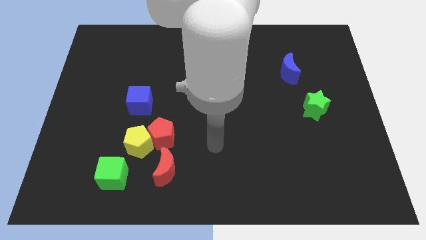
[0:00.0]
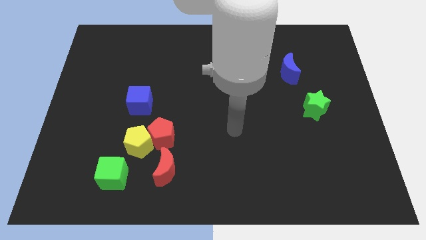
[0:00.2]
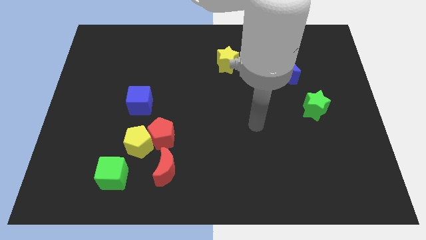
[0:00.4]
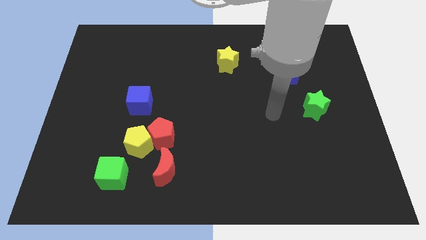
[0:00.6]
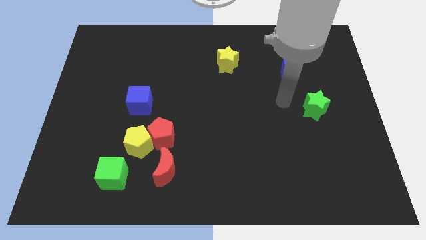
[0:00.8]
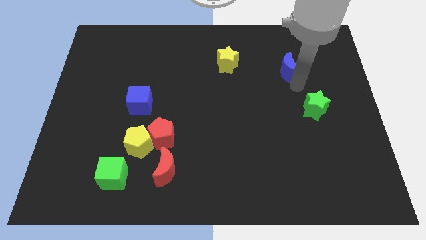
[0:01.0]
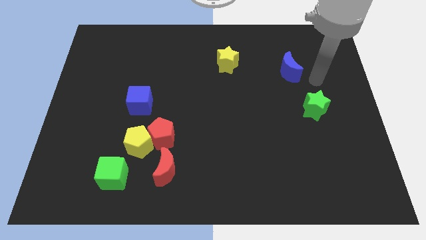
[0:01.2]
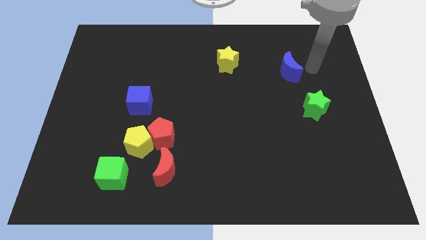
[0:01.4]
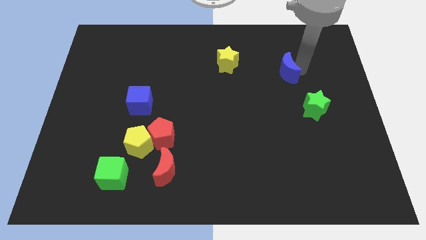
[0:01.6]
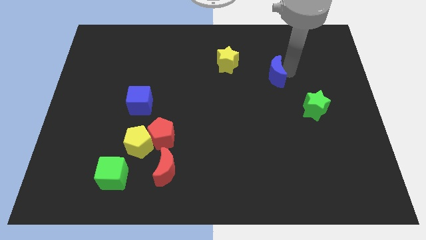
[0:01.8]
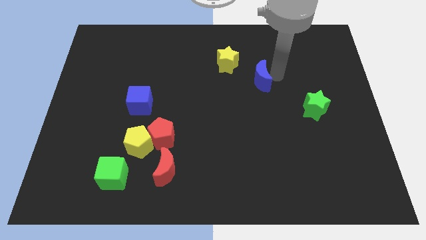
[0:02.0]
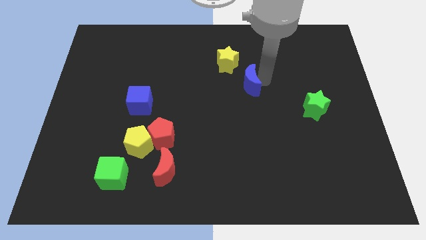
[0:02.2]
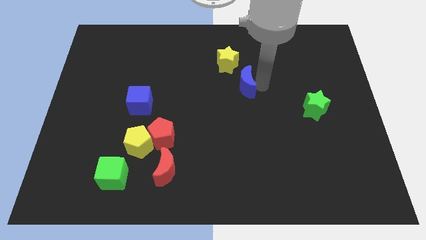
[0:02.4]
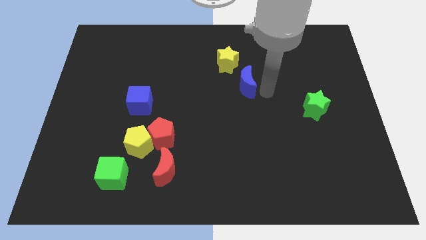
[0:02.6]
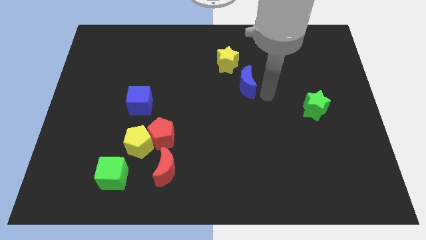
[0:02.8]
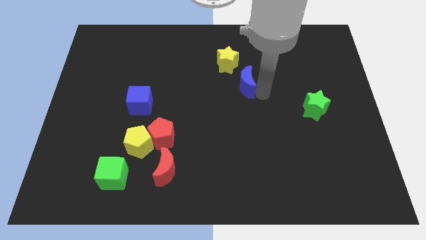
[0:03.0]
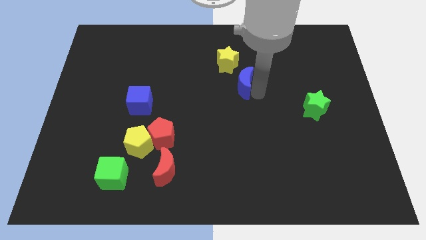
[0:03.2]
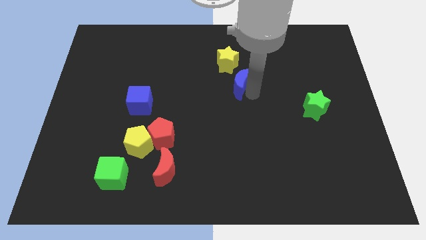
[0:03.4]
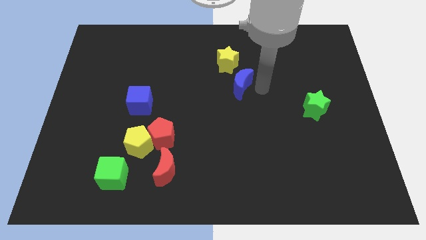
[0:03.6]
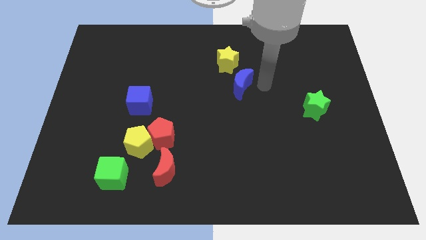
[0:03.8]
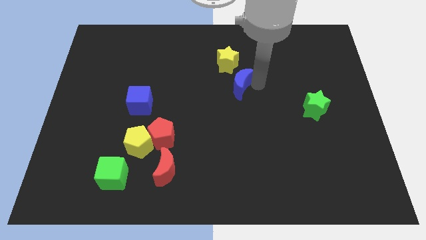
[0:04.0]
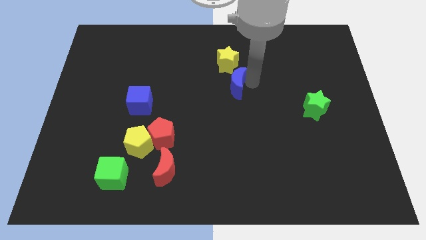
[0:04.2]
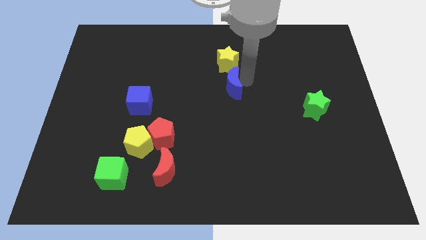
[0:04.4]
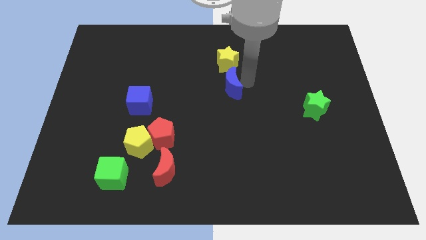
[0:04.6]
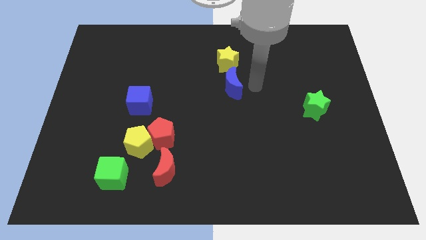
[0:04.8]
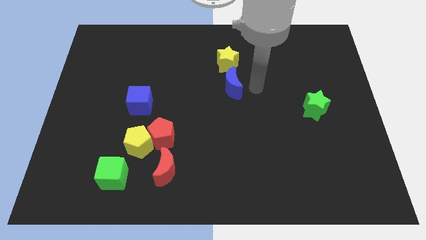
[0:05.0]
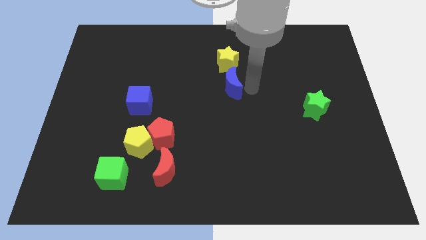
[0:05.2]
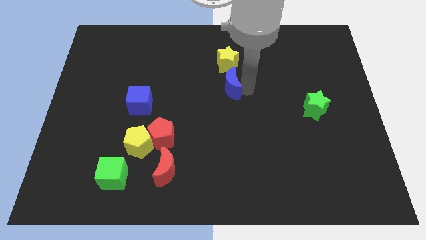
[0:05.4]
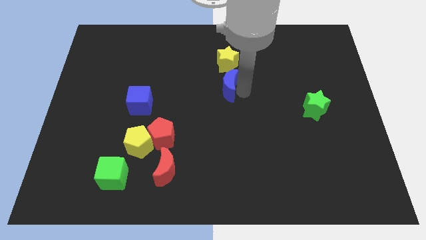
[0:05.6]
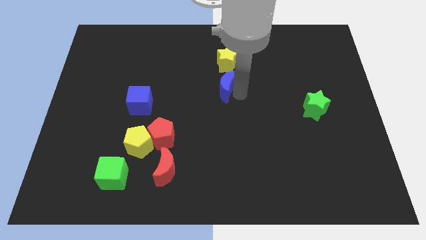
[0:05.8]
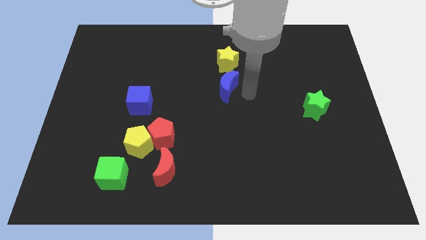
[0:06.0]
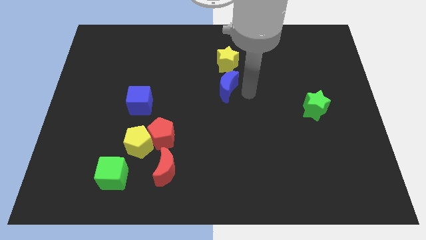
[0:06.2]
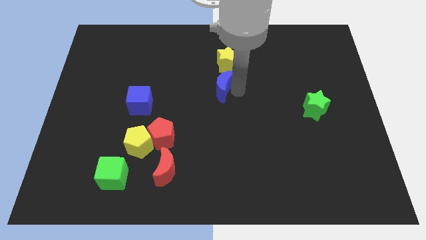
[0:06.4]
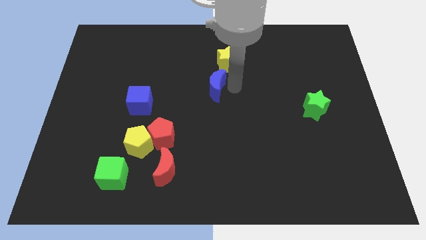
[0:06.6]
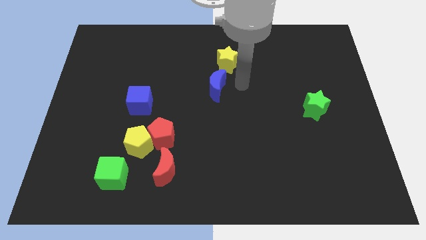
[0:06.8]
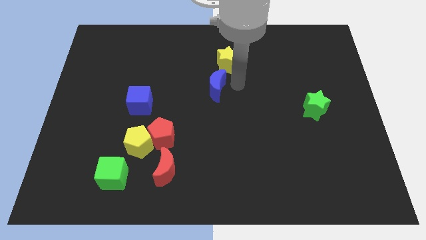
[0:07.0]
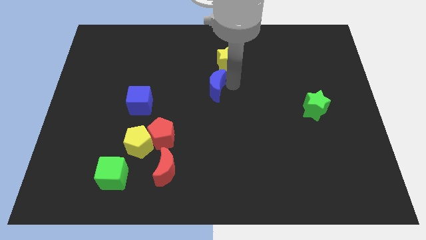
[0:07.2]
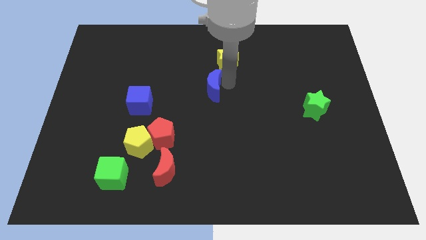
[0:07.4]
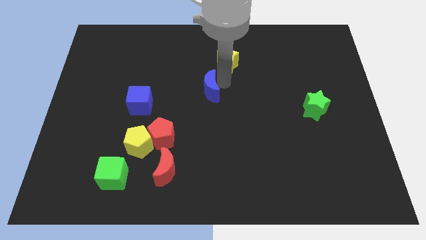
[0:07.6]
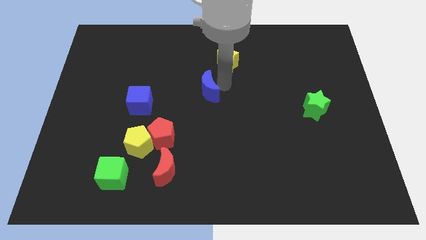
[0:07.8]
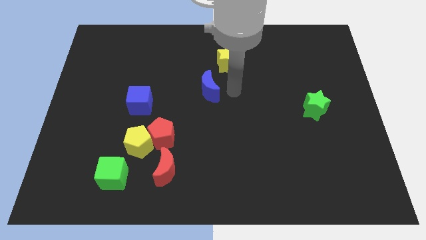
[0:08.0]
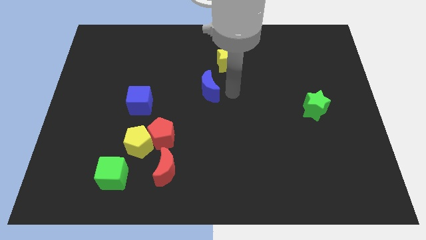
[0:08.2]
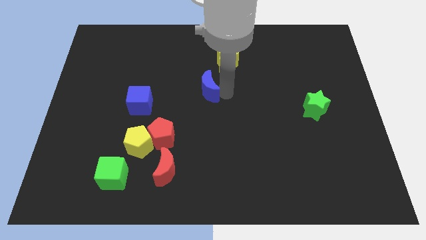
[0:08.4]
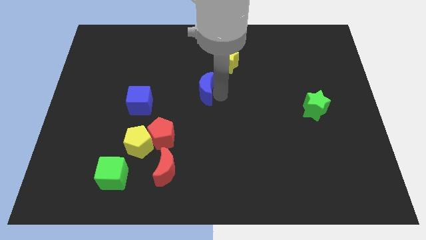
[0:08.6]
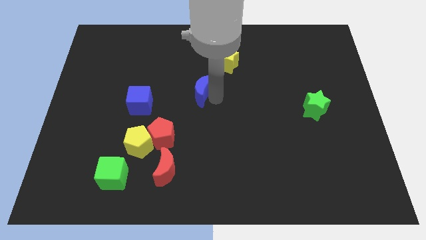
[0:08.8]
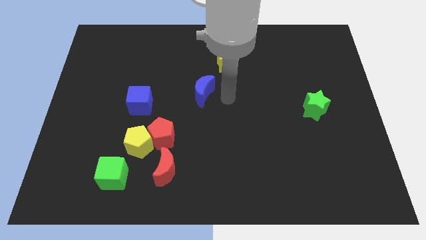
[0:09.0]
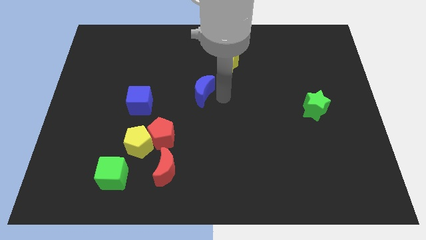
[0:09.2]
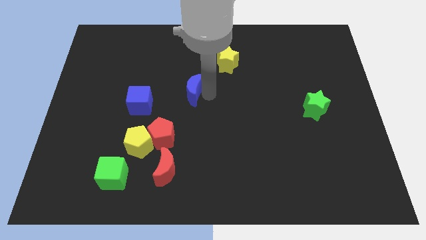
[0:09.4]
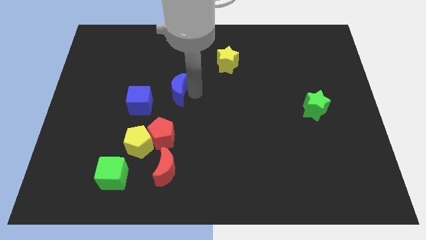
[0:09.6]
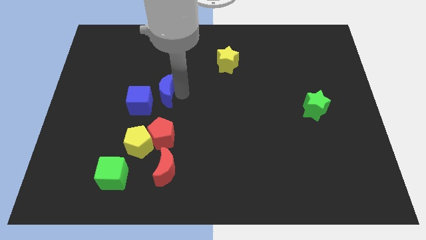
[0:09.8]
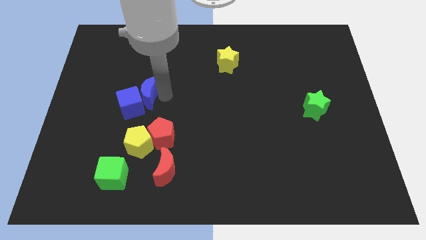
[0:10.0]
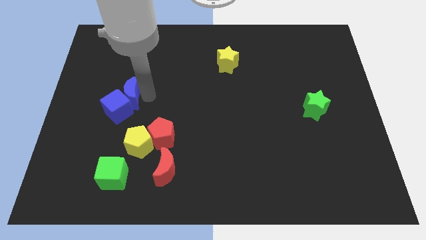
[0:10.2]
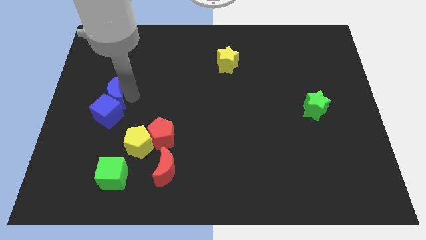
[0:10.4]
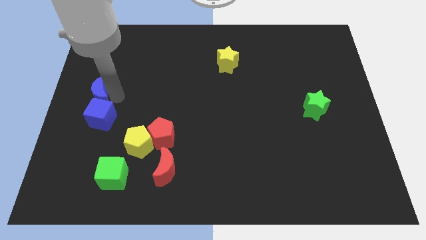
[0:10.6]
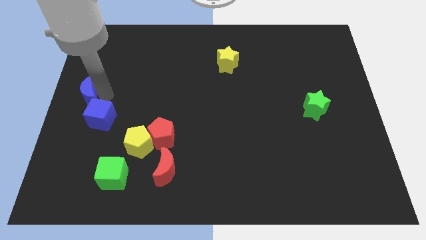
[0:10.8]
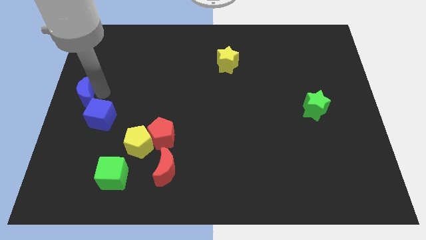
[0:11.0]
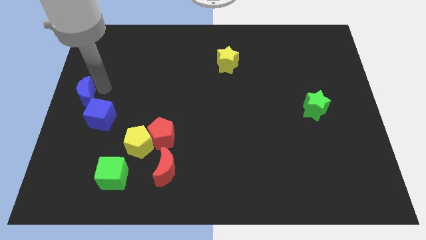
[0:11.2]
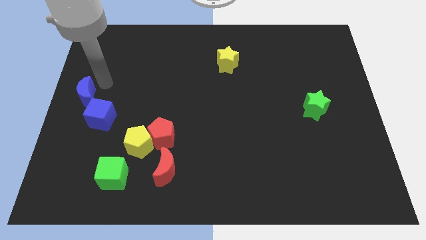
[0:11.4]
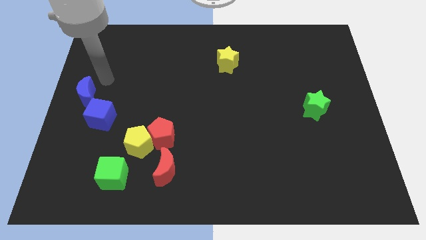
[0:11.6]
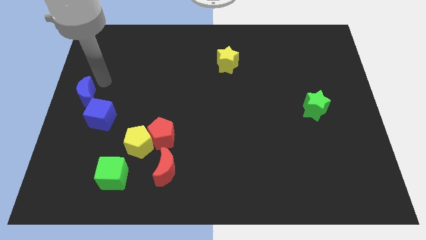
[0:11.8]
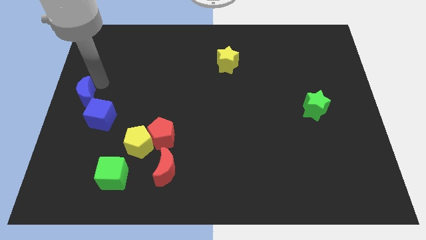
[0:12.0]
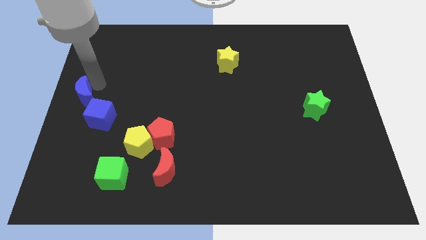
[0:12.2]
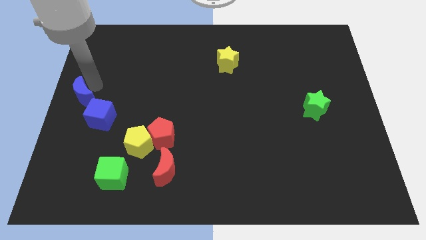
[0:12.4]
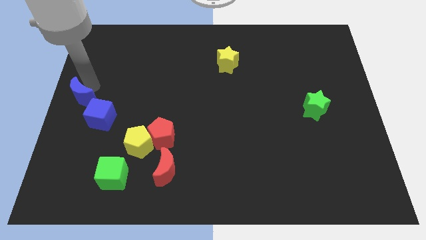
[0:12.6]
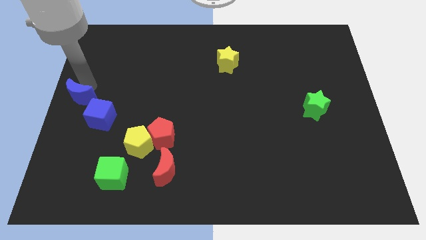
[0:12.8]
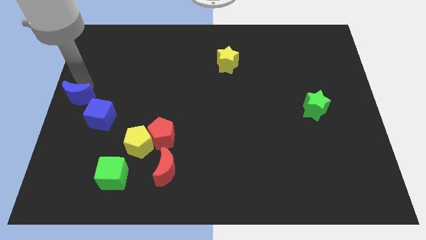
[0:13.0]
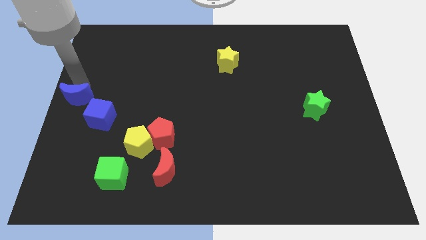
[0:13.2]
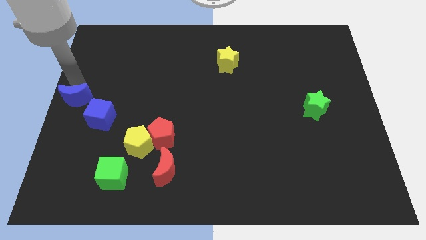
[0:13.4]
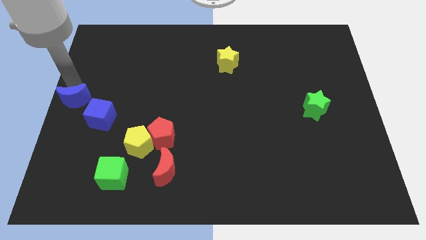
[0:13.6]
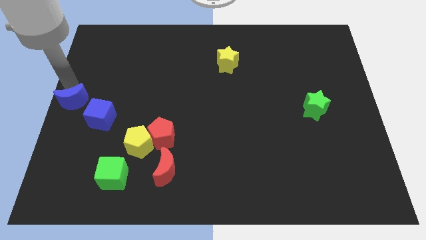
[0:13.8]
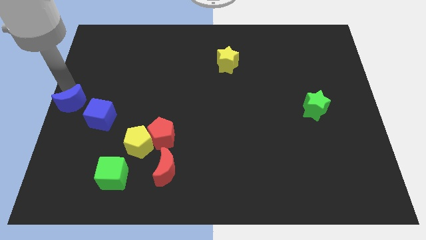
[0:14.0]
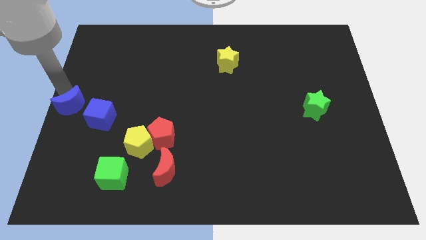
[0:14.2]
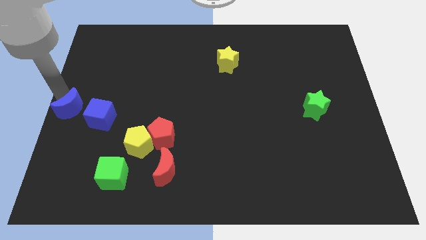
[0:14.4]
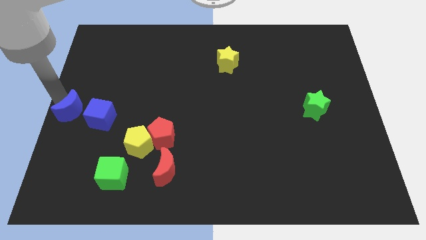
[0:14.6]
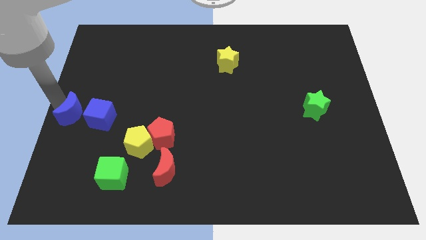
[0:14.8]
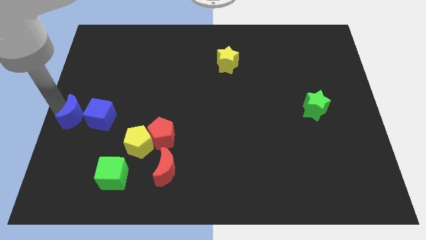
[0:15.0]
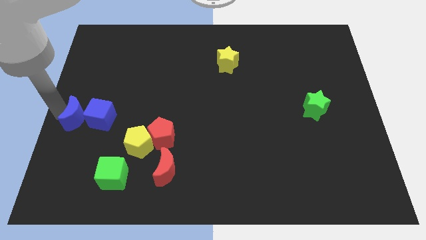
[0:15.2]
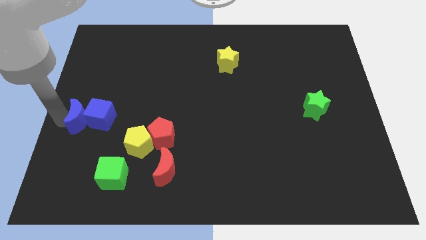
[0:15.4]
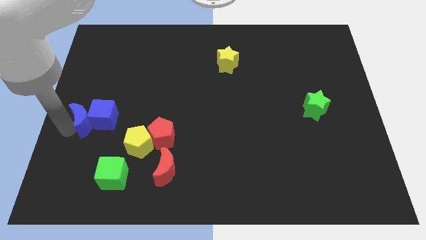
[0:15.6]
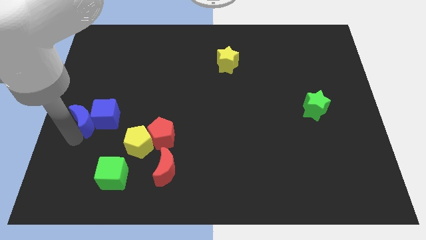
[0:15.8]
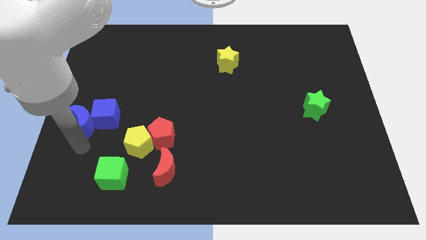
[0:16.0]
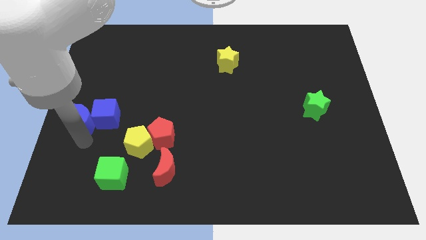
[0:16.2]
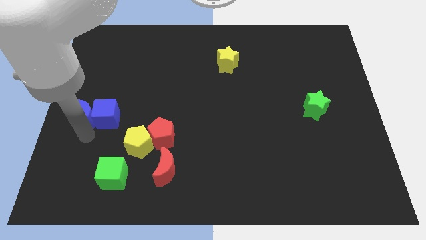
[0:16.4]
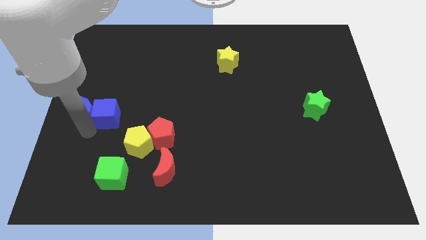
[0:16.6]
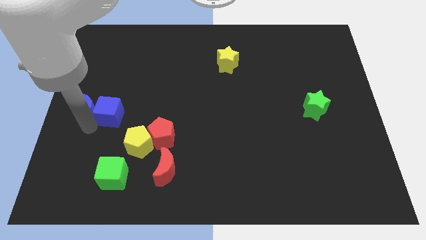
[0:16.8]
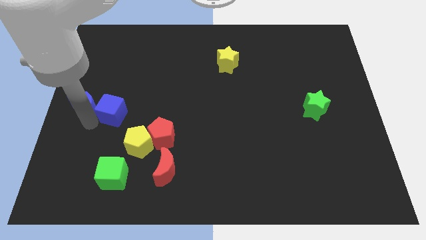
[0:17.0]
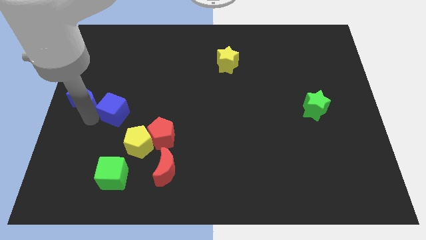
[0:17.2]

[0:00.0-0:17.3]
put the blue moon to the top left side of the blue cube
